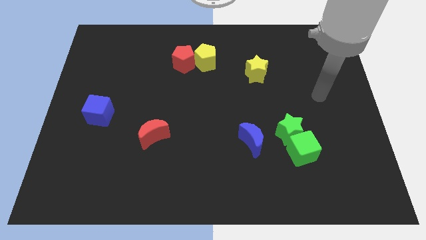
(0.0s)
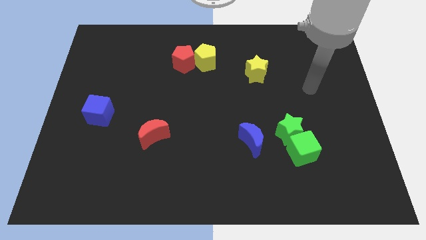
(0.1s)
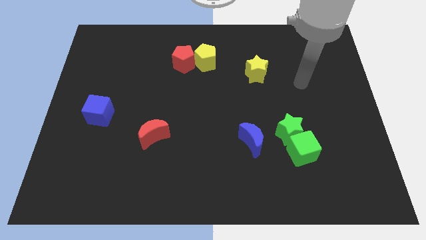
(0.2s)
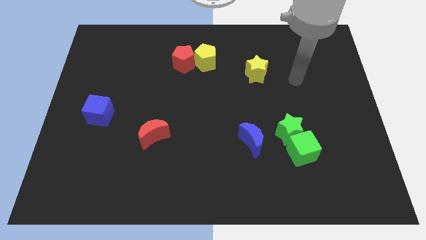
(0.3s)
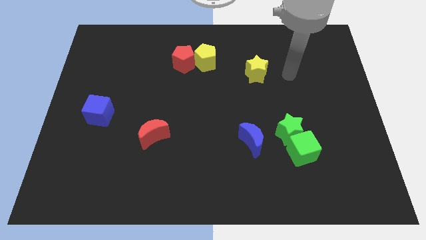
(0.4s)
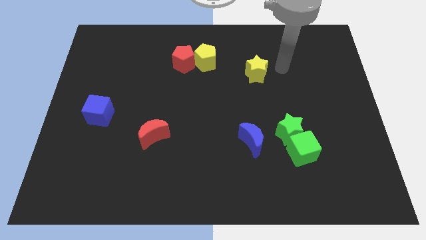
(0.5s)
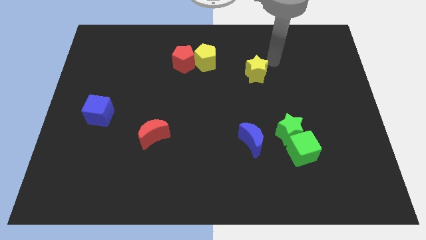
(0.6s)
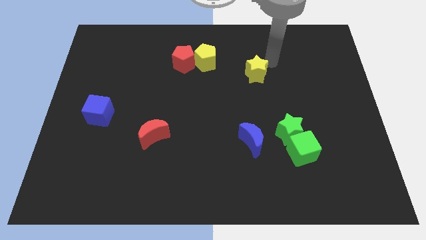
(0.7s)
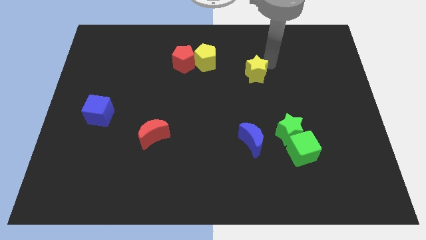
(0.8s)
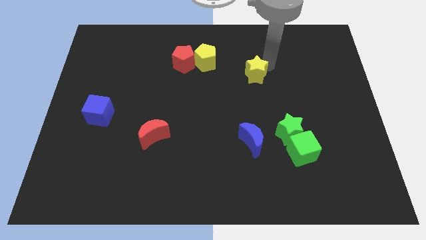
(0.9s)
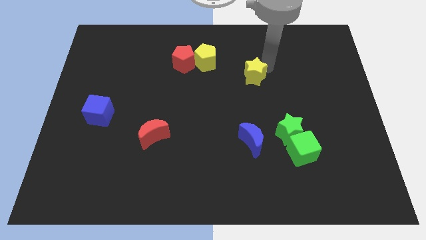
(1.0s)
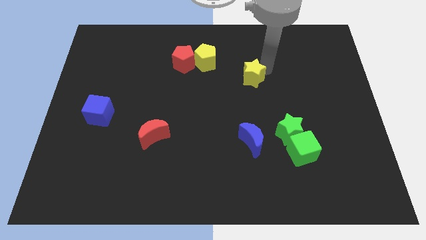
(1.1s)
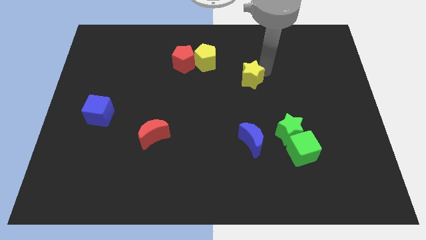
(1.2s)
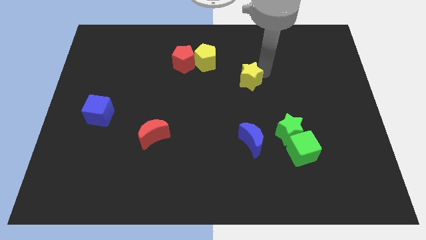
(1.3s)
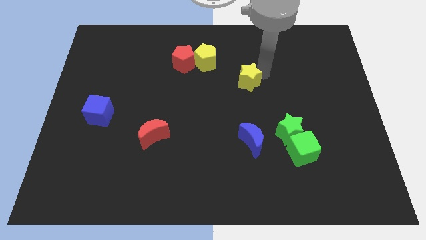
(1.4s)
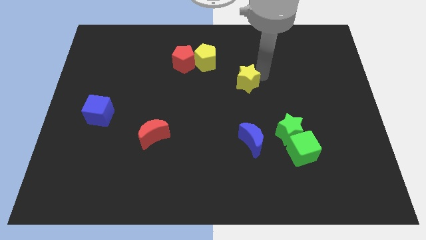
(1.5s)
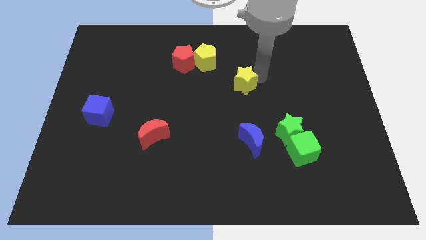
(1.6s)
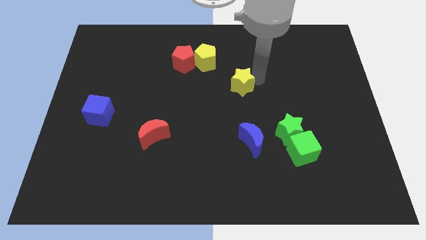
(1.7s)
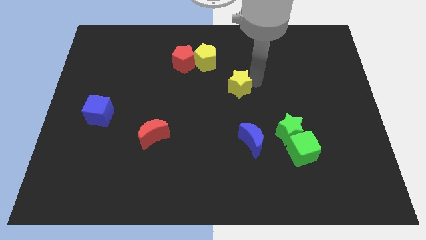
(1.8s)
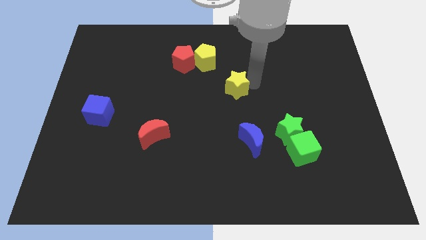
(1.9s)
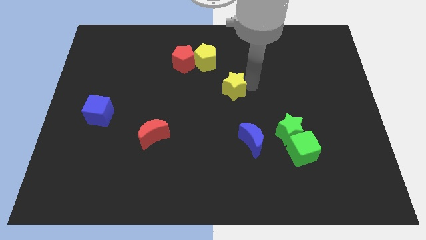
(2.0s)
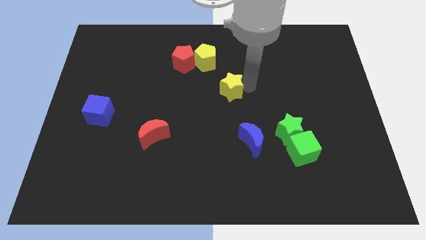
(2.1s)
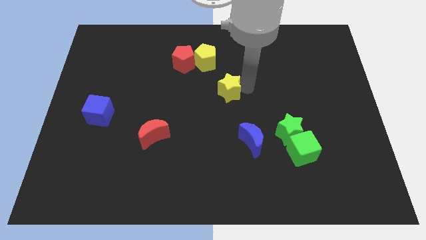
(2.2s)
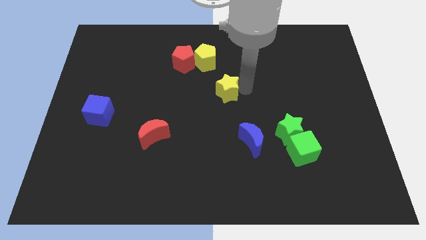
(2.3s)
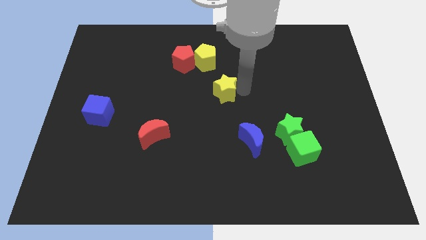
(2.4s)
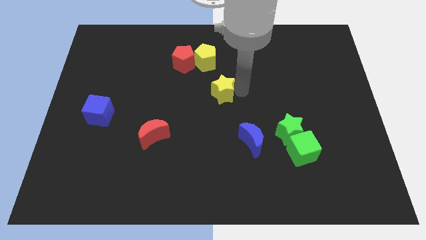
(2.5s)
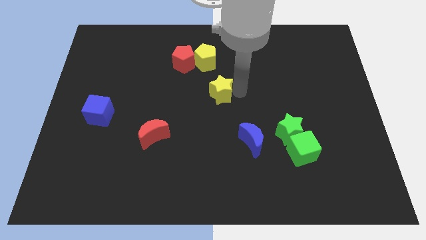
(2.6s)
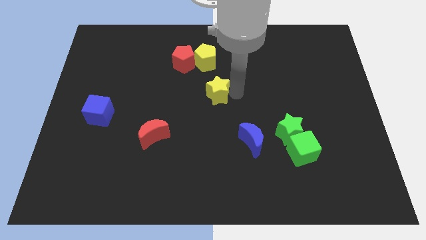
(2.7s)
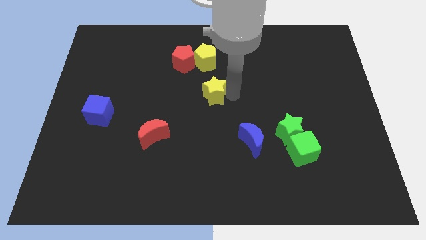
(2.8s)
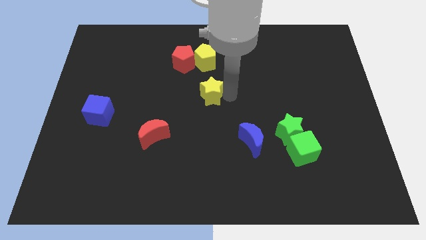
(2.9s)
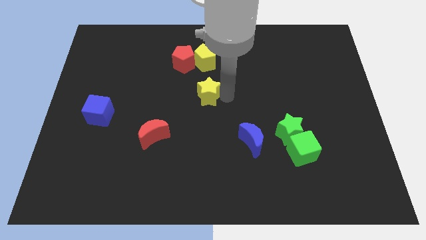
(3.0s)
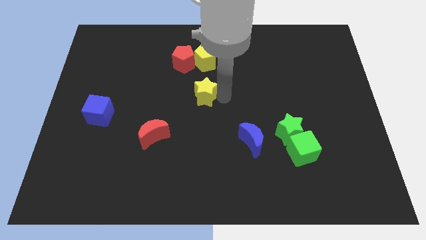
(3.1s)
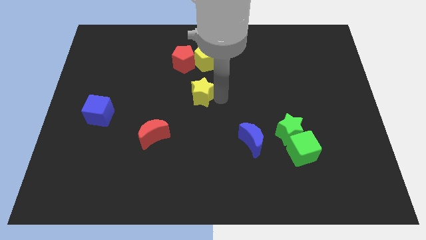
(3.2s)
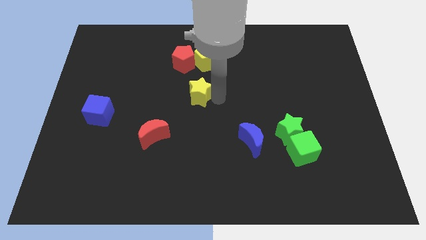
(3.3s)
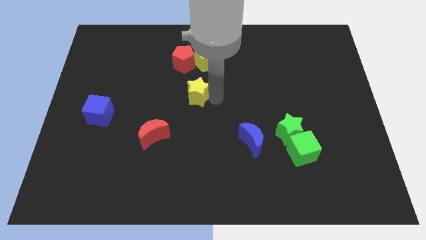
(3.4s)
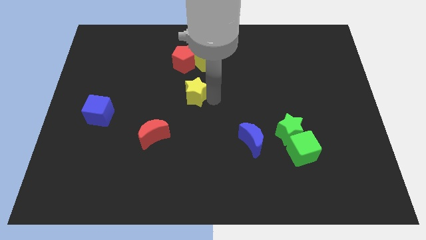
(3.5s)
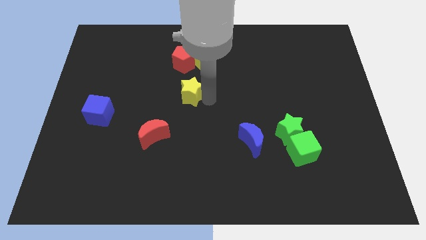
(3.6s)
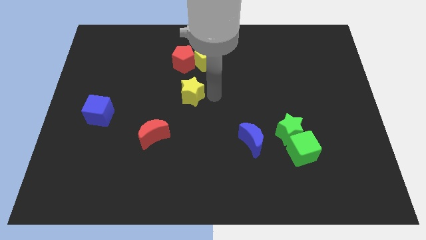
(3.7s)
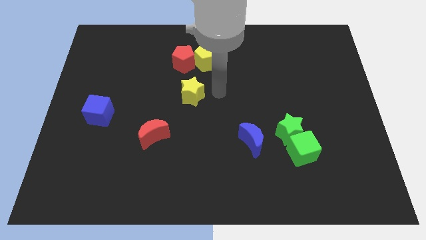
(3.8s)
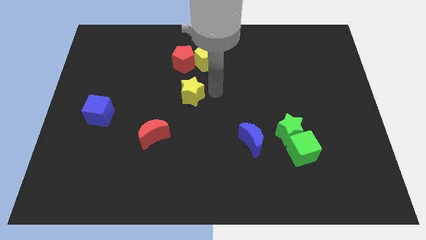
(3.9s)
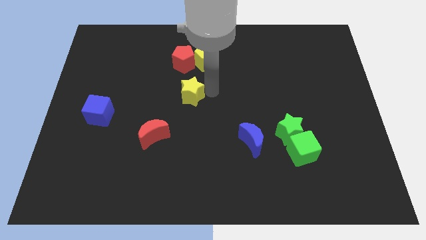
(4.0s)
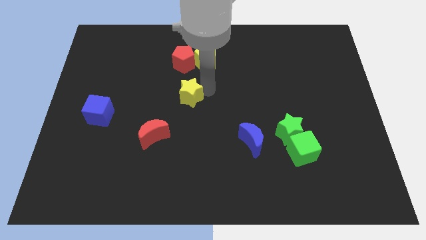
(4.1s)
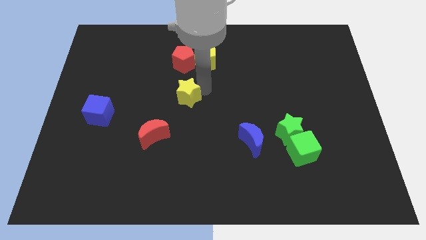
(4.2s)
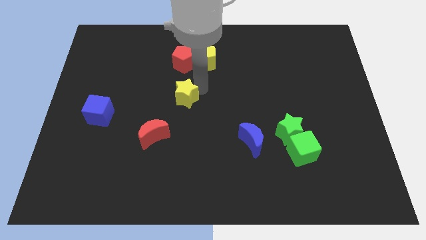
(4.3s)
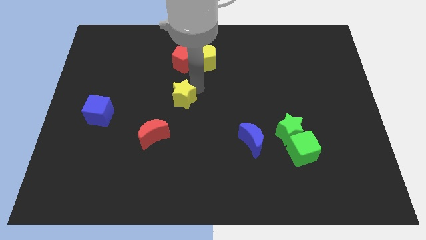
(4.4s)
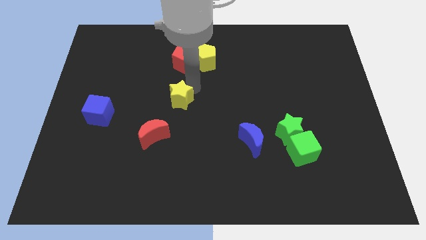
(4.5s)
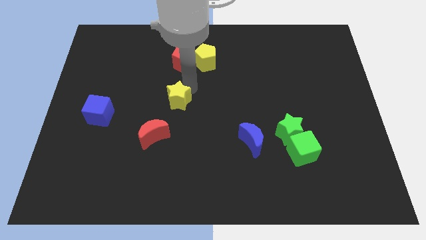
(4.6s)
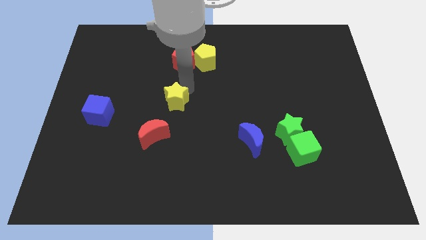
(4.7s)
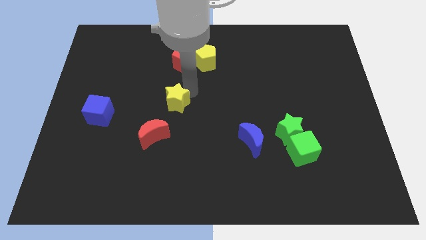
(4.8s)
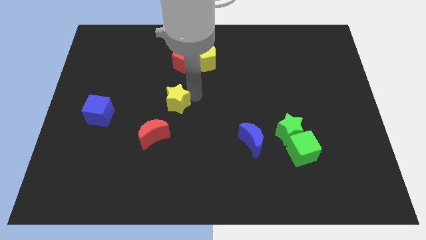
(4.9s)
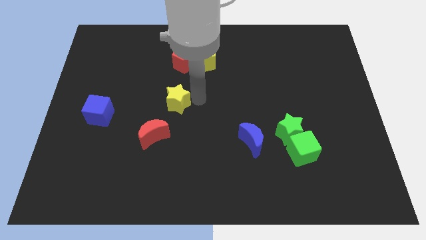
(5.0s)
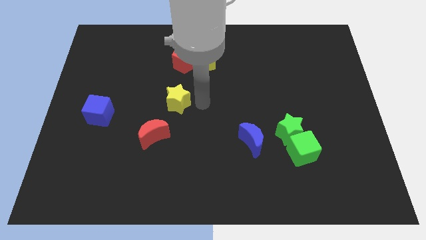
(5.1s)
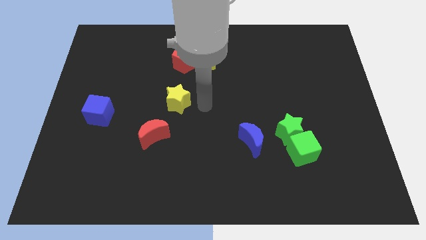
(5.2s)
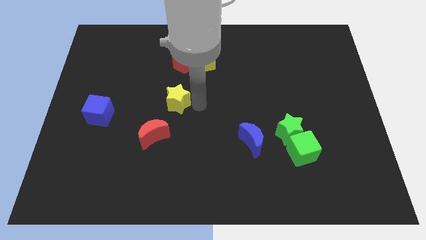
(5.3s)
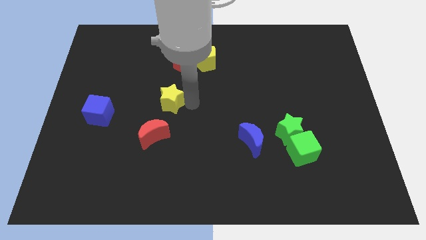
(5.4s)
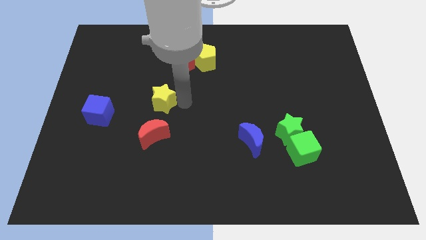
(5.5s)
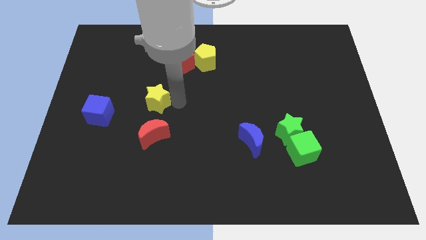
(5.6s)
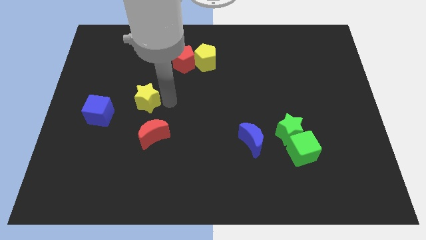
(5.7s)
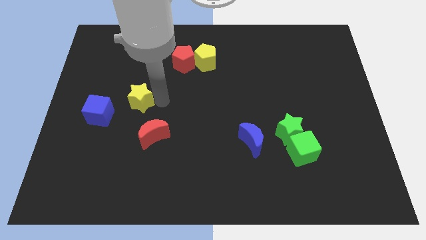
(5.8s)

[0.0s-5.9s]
slide the yellow star to the top right of the blue cube
